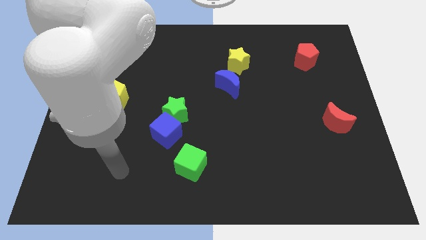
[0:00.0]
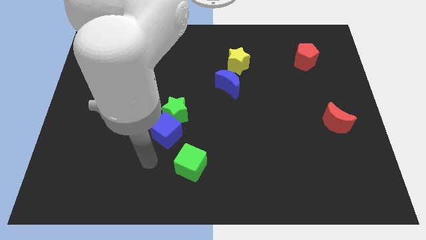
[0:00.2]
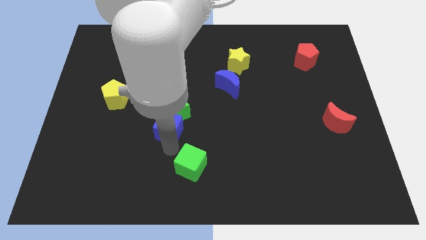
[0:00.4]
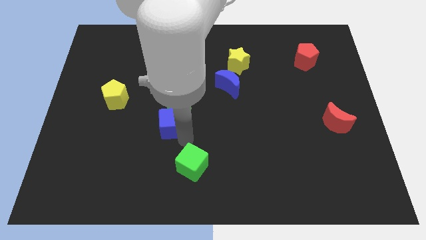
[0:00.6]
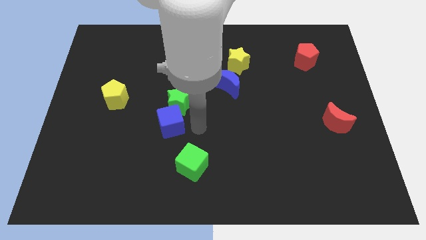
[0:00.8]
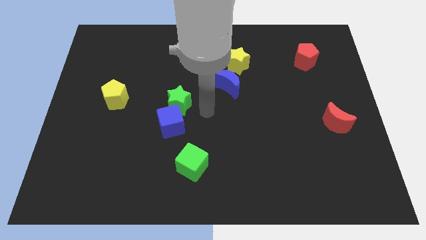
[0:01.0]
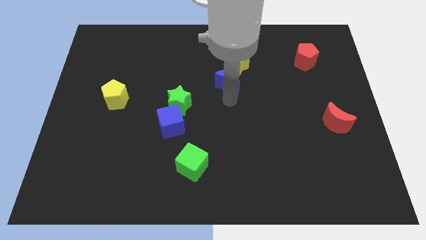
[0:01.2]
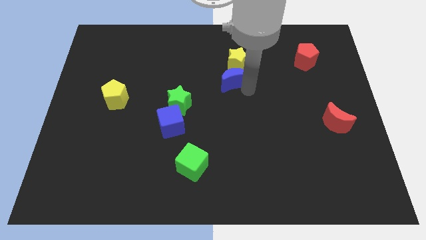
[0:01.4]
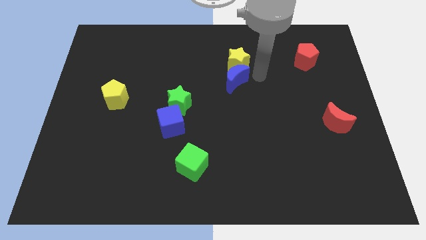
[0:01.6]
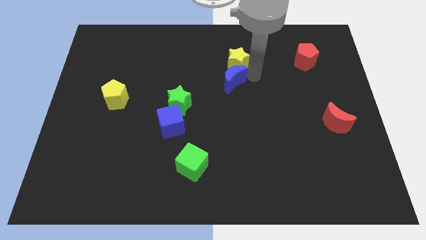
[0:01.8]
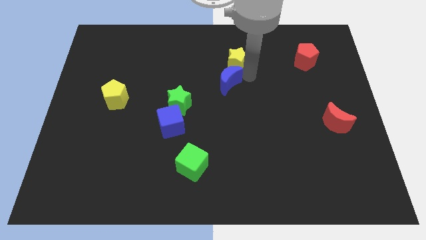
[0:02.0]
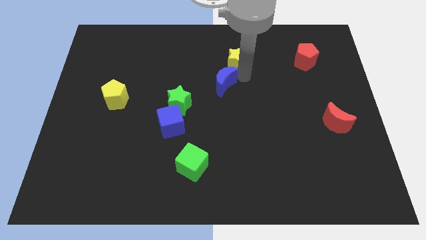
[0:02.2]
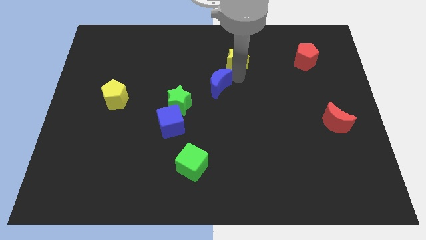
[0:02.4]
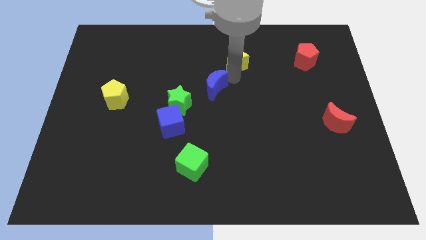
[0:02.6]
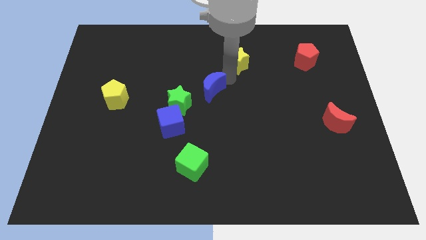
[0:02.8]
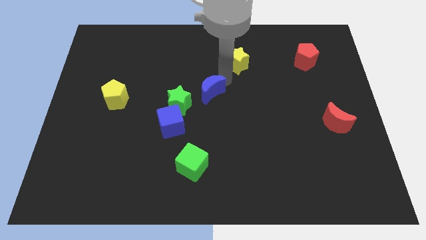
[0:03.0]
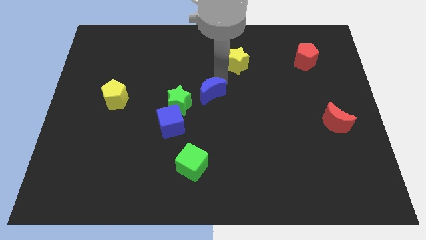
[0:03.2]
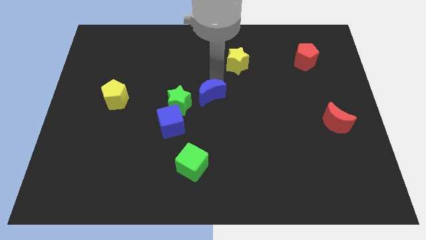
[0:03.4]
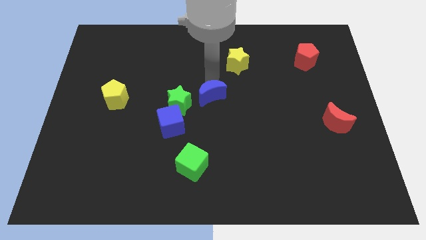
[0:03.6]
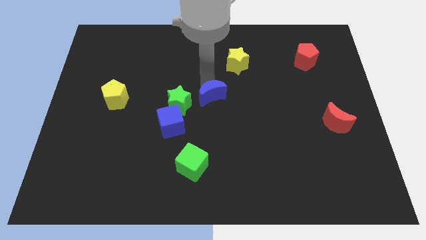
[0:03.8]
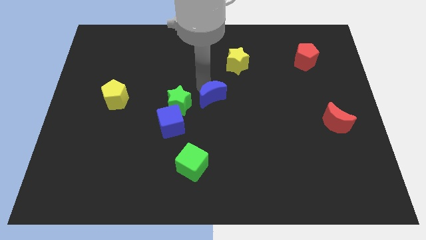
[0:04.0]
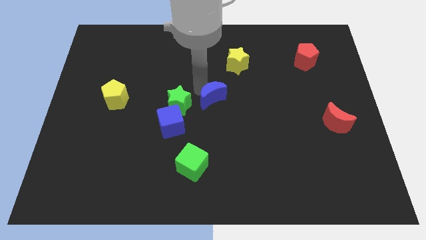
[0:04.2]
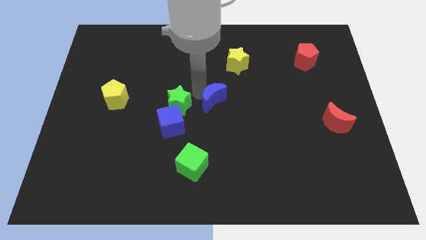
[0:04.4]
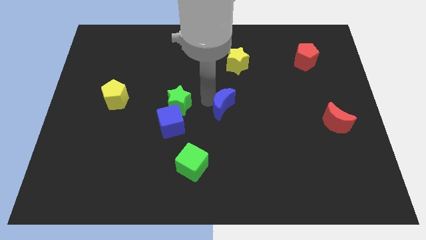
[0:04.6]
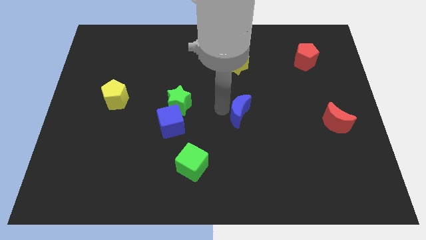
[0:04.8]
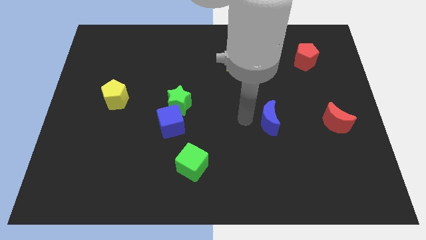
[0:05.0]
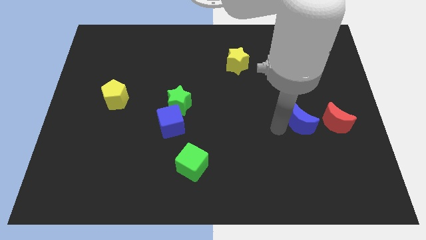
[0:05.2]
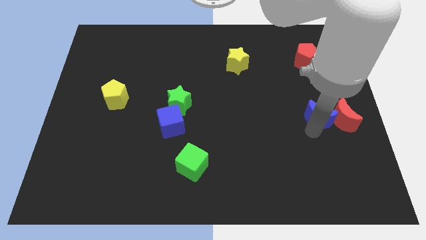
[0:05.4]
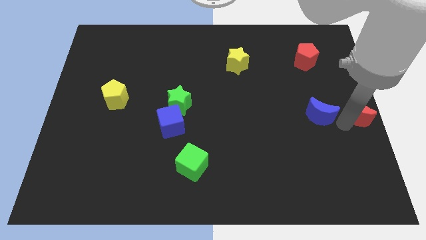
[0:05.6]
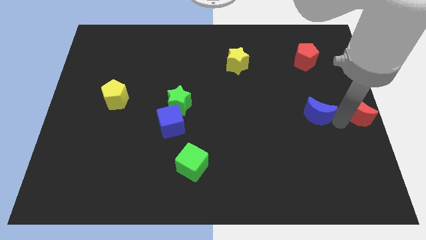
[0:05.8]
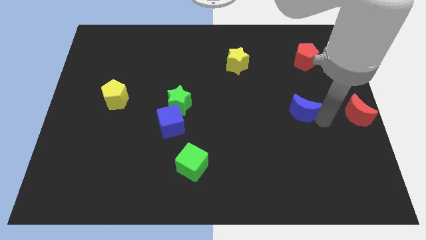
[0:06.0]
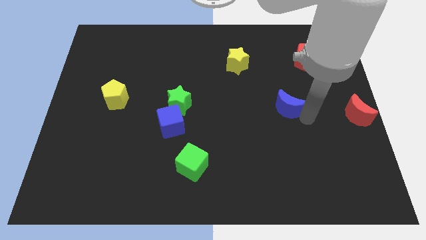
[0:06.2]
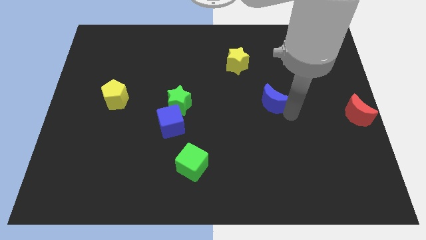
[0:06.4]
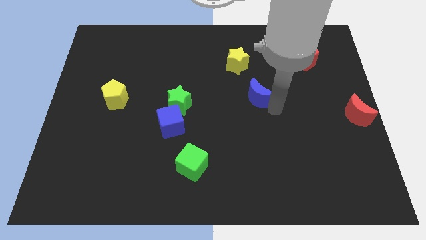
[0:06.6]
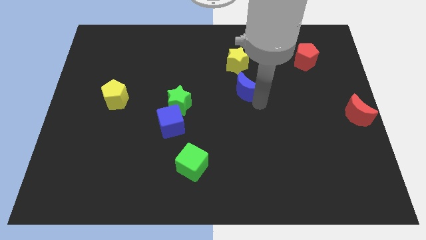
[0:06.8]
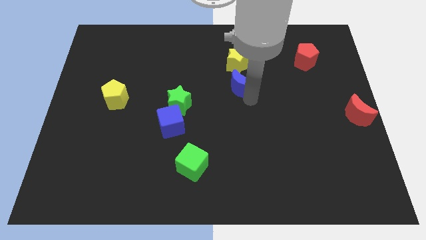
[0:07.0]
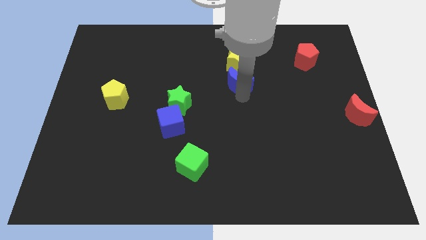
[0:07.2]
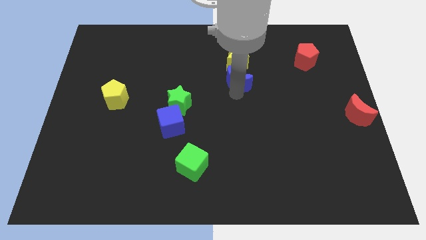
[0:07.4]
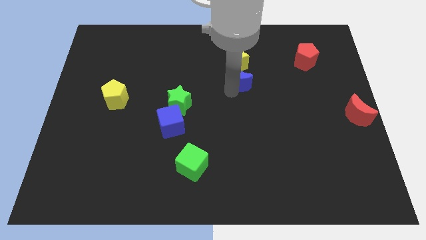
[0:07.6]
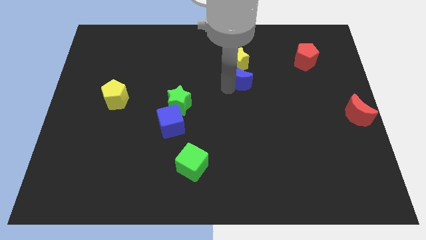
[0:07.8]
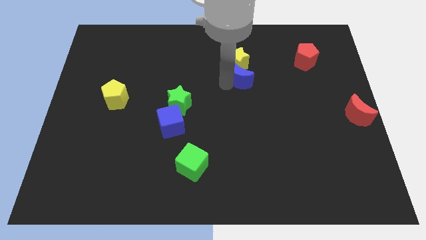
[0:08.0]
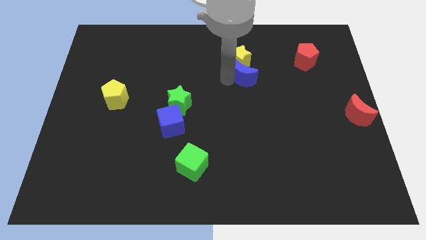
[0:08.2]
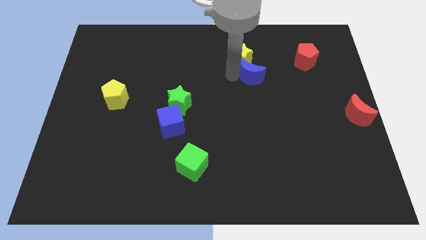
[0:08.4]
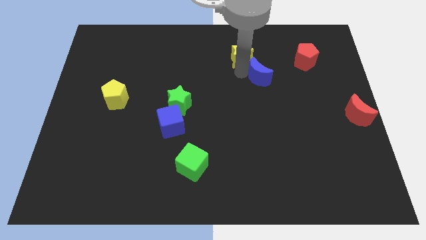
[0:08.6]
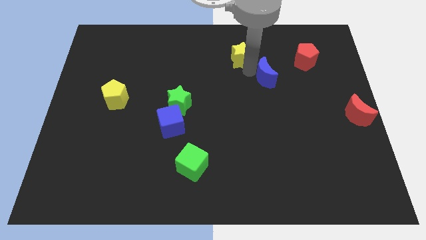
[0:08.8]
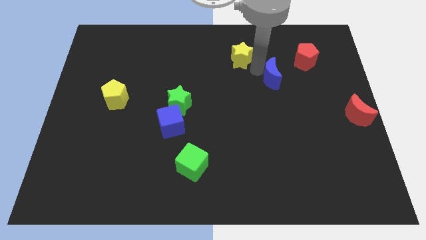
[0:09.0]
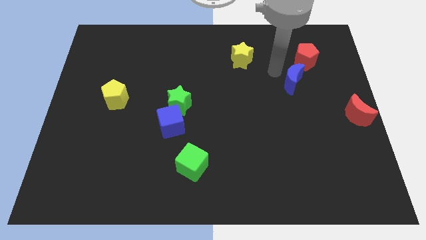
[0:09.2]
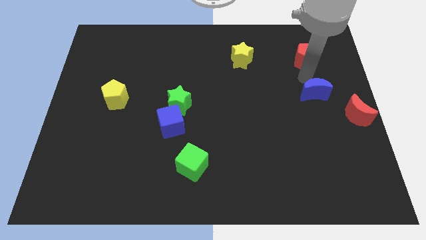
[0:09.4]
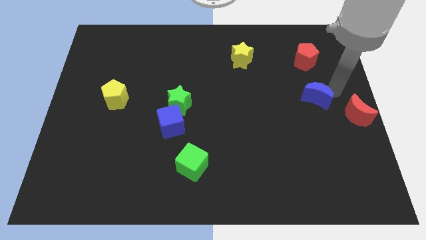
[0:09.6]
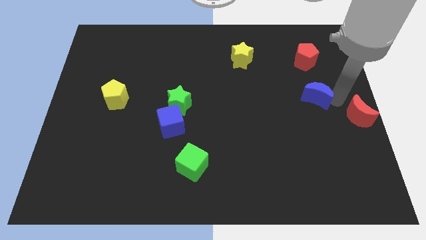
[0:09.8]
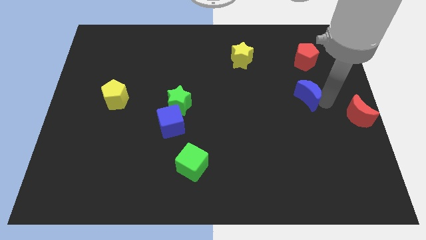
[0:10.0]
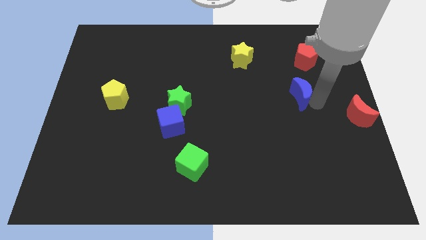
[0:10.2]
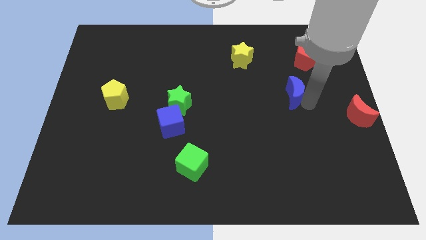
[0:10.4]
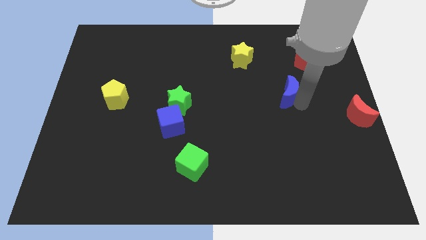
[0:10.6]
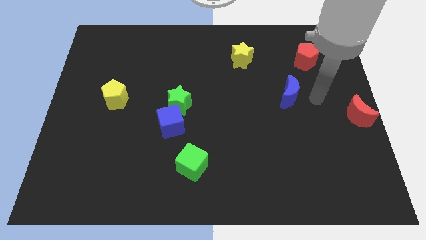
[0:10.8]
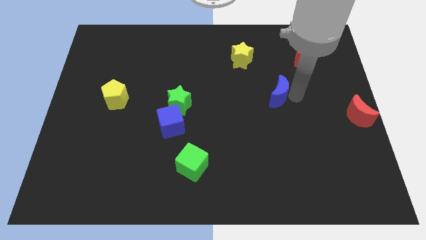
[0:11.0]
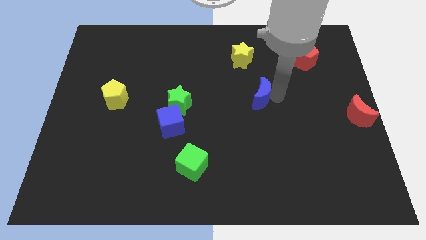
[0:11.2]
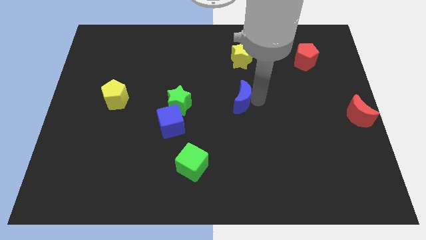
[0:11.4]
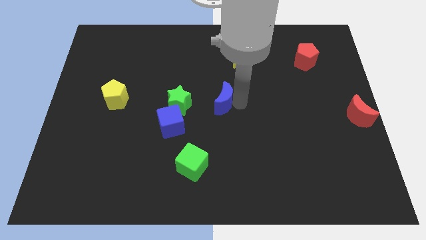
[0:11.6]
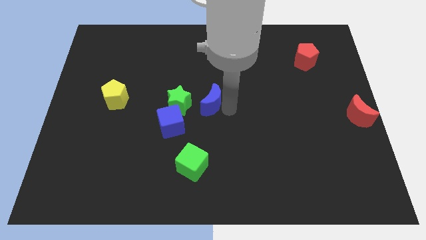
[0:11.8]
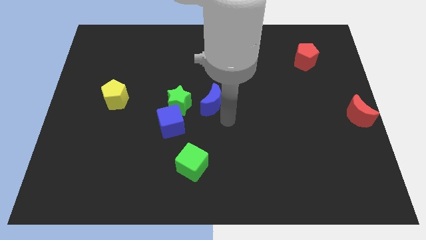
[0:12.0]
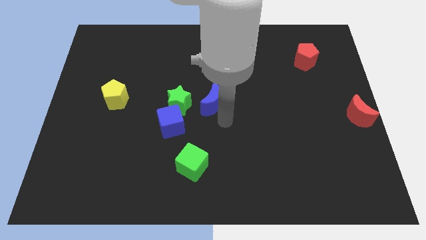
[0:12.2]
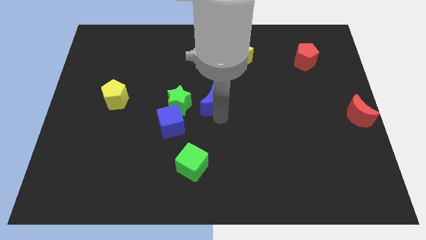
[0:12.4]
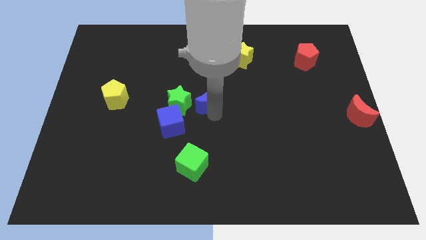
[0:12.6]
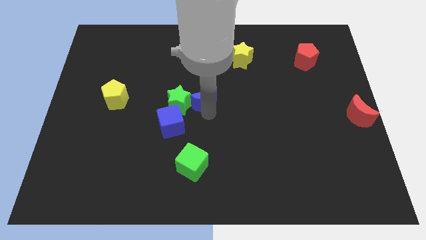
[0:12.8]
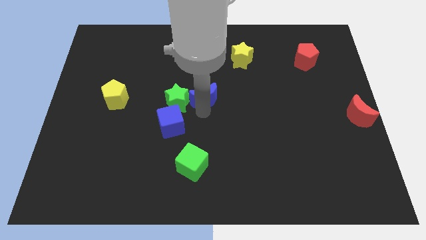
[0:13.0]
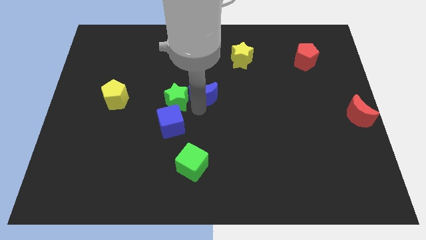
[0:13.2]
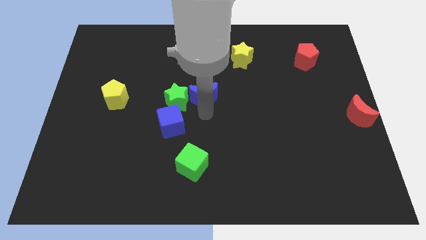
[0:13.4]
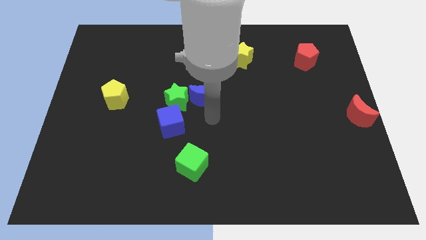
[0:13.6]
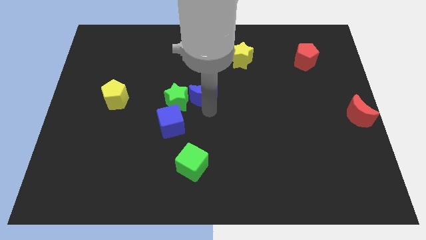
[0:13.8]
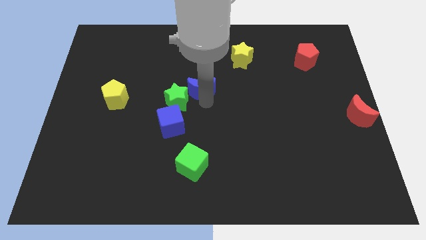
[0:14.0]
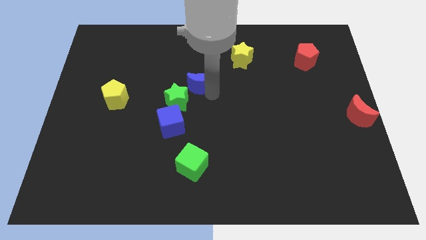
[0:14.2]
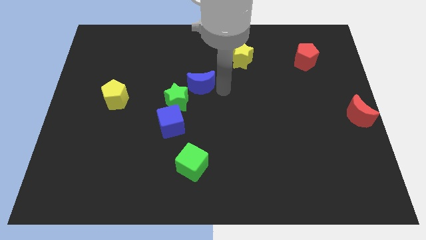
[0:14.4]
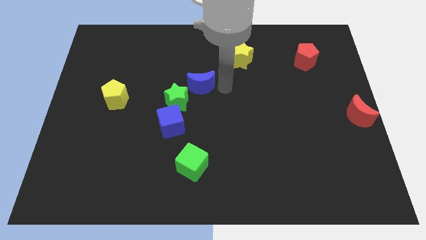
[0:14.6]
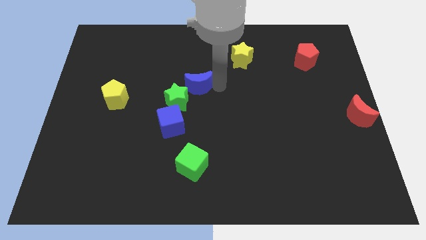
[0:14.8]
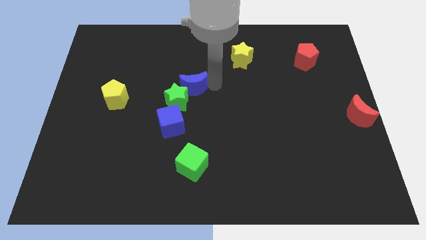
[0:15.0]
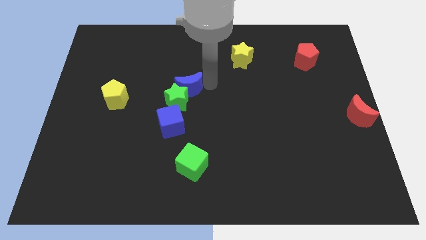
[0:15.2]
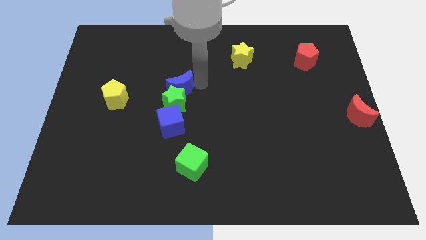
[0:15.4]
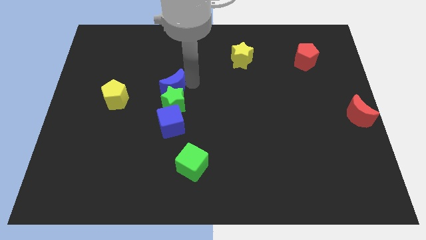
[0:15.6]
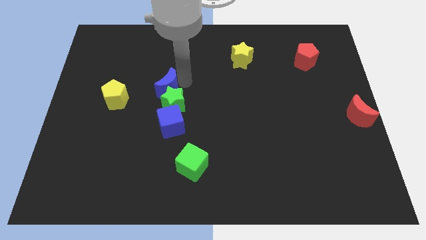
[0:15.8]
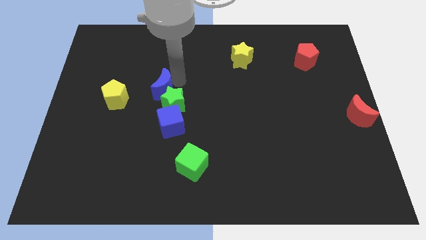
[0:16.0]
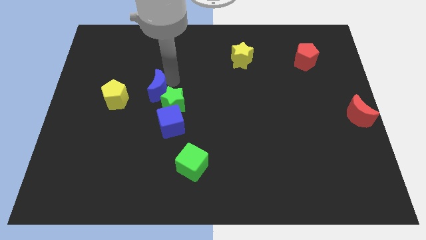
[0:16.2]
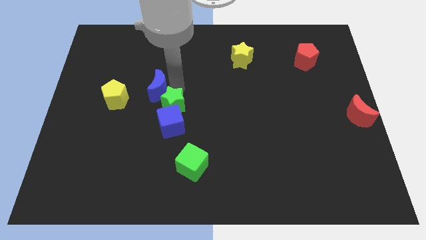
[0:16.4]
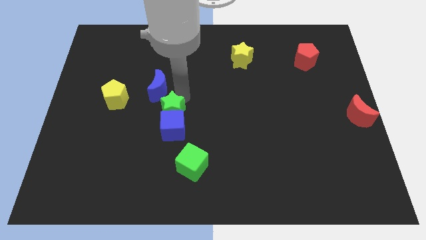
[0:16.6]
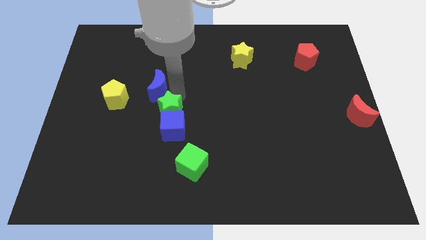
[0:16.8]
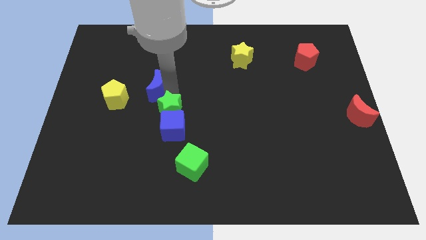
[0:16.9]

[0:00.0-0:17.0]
move the blue moon to the top right of the yellow pentagon
